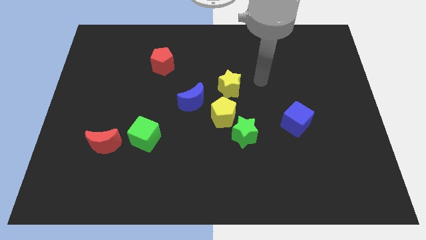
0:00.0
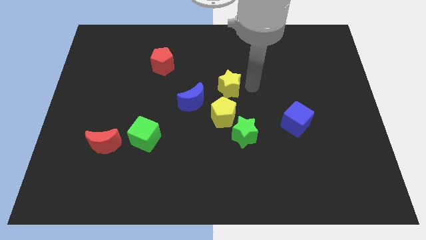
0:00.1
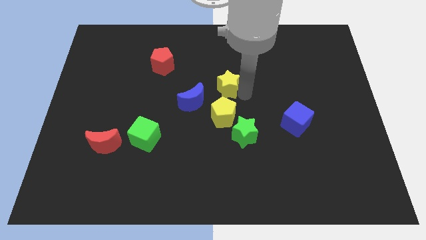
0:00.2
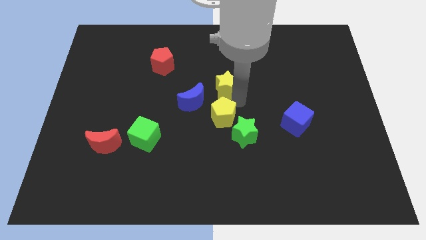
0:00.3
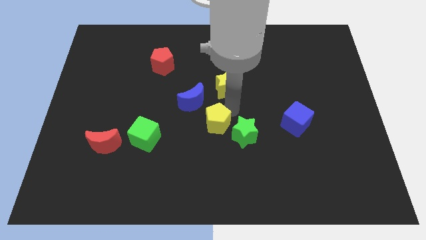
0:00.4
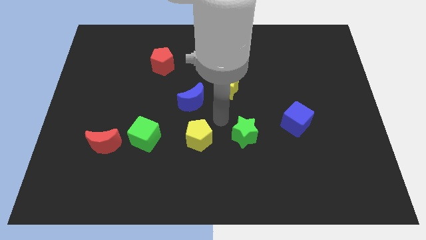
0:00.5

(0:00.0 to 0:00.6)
pull the green star apart from the yellow pentagon

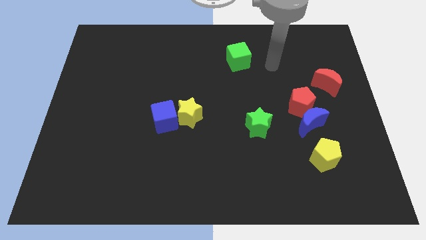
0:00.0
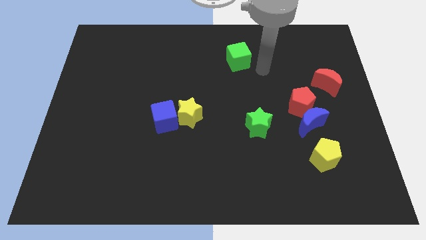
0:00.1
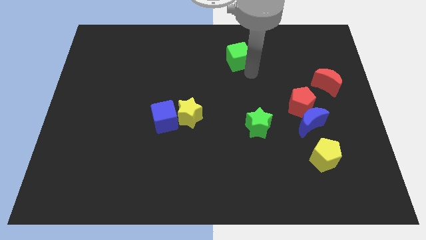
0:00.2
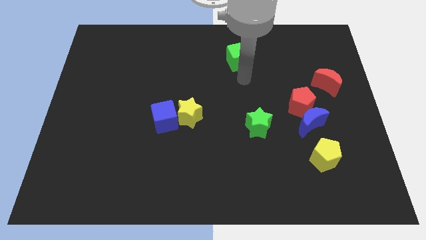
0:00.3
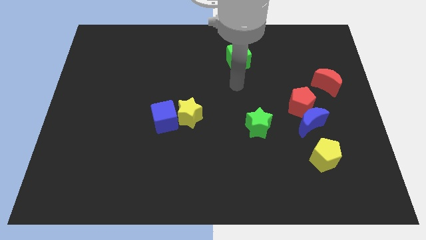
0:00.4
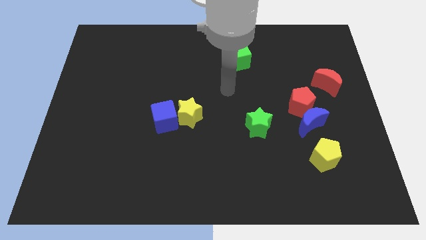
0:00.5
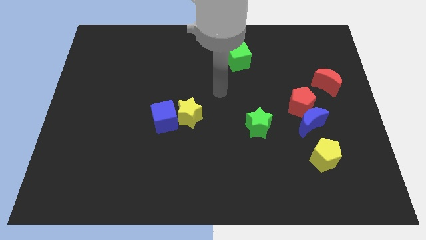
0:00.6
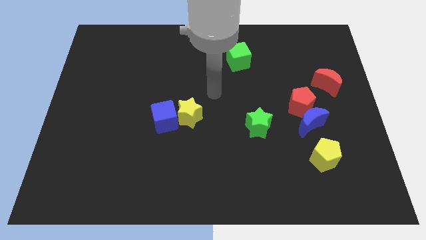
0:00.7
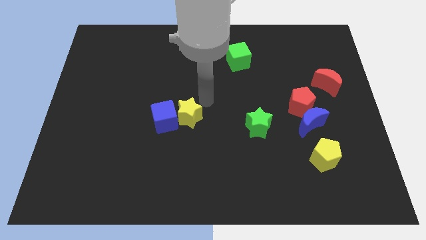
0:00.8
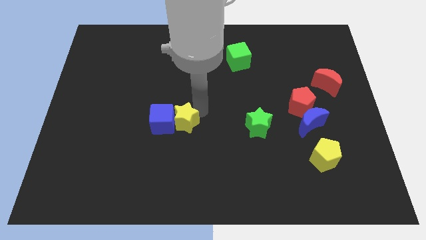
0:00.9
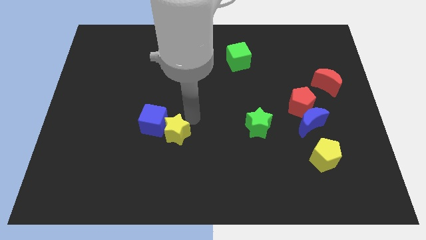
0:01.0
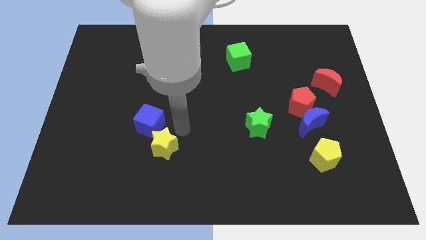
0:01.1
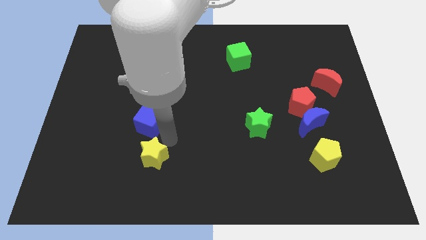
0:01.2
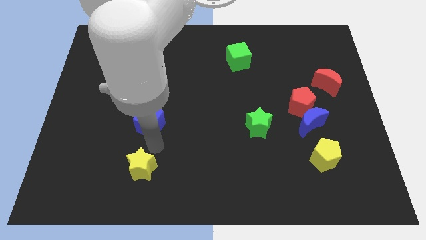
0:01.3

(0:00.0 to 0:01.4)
separate the blue cube from the yellow star

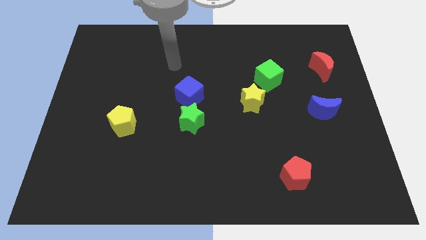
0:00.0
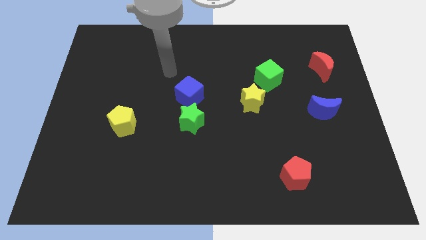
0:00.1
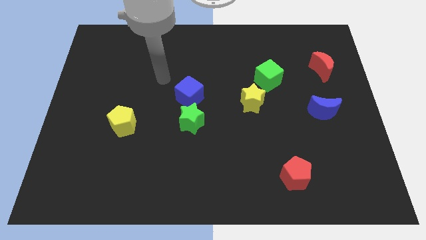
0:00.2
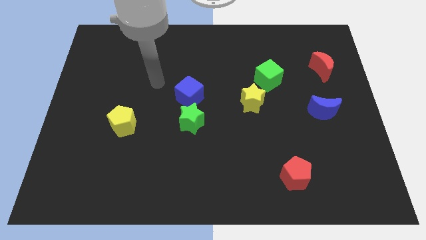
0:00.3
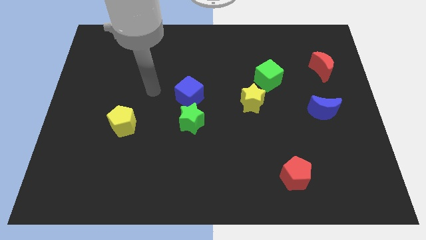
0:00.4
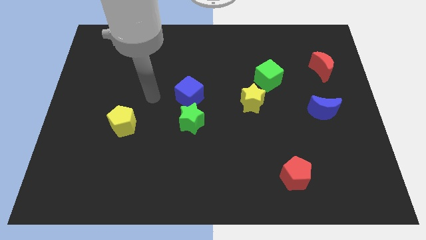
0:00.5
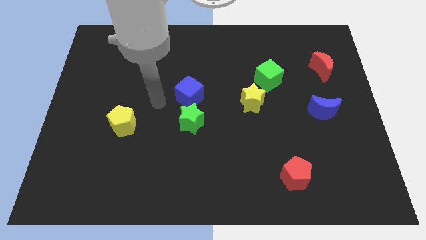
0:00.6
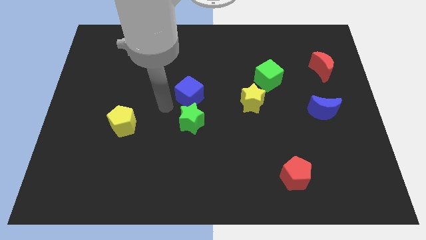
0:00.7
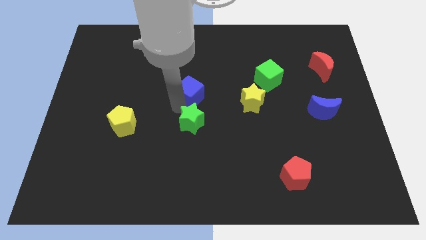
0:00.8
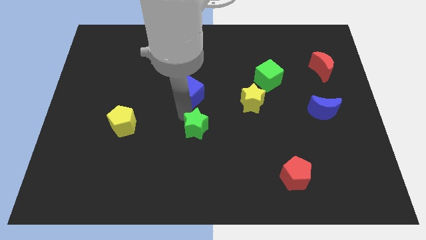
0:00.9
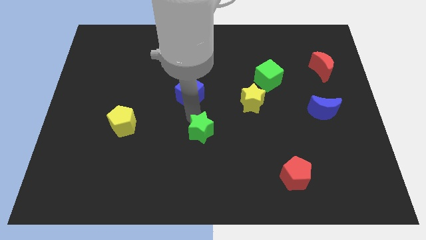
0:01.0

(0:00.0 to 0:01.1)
pull the blue cube apart from the green star

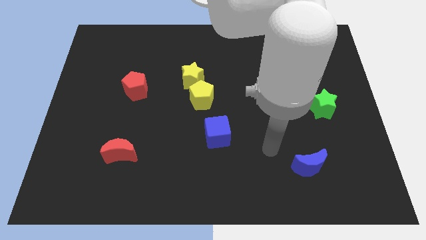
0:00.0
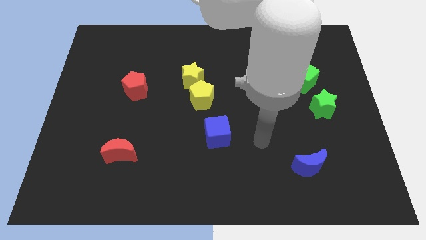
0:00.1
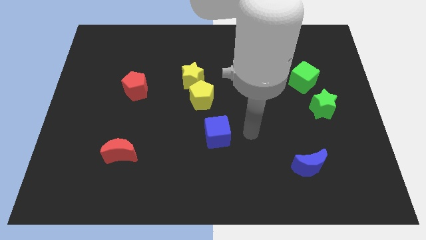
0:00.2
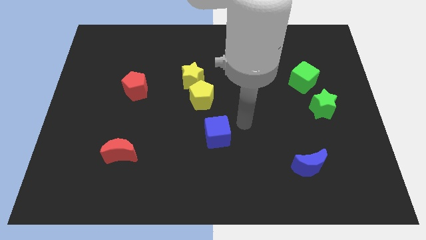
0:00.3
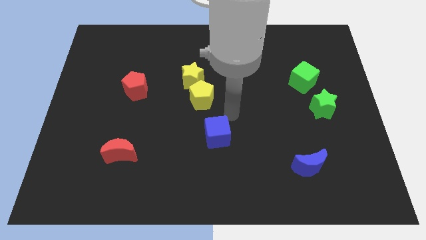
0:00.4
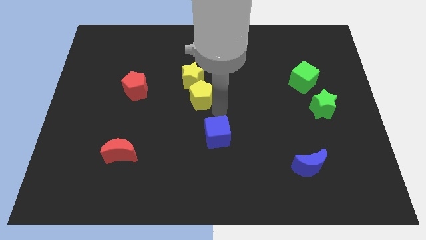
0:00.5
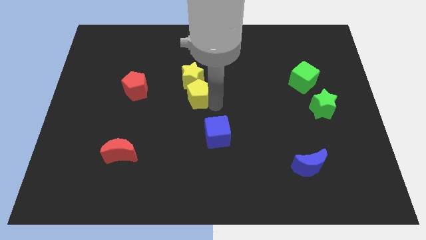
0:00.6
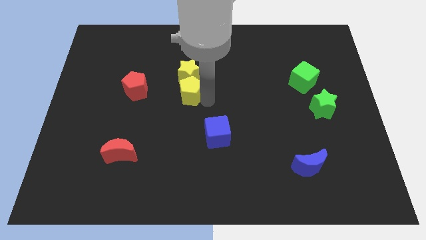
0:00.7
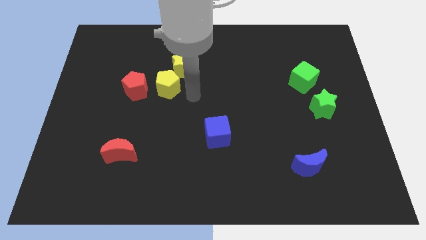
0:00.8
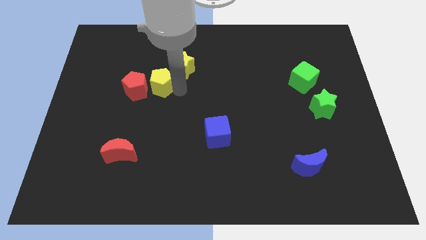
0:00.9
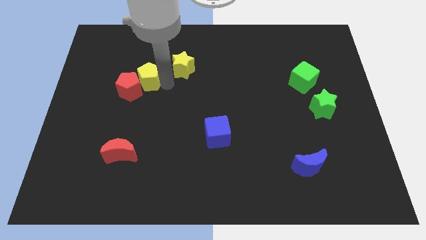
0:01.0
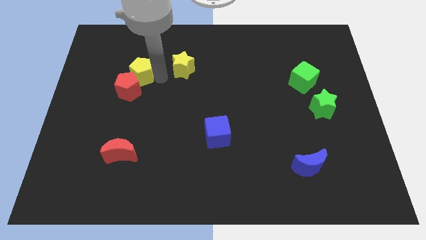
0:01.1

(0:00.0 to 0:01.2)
move the yellow star away from the yellow pentagon

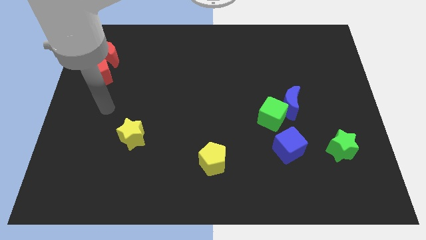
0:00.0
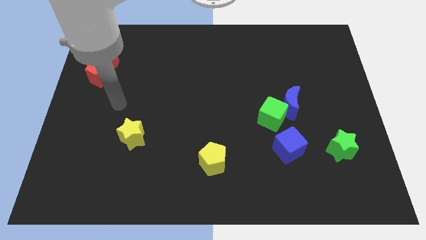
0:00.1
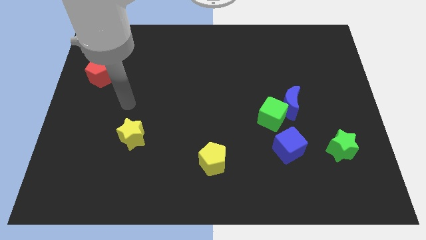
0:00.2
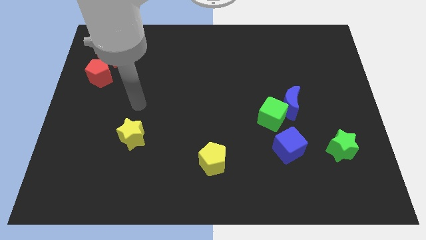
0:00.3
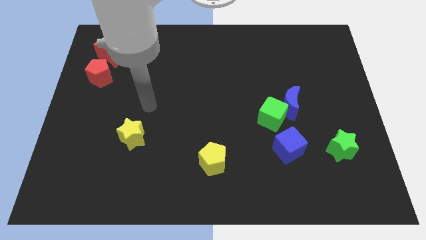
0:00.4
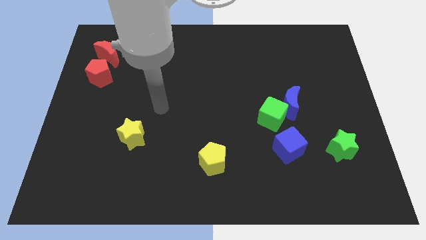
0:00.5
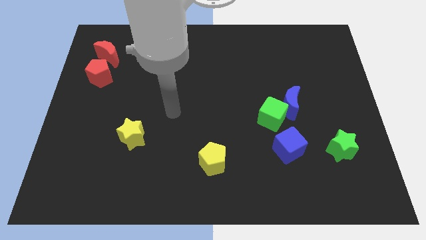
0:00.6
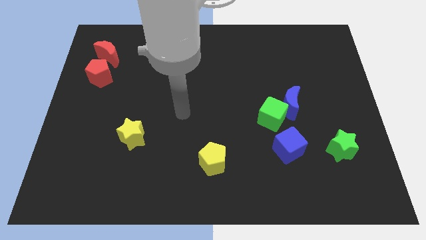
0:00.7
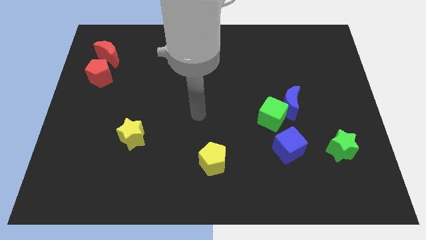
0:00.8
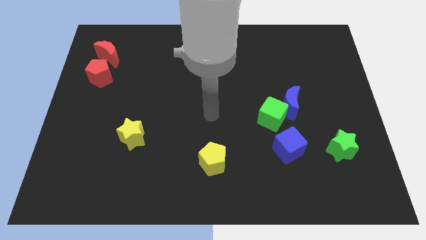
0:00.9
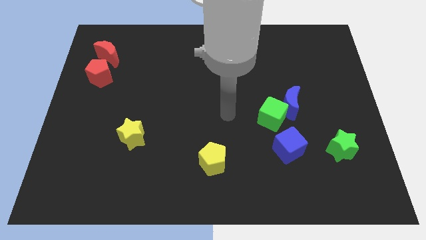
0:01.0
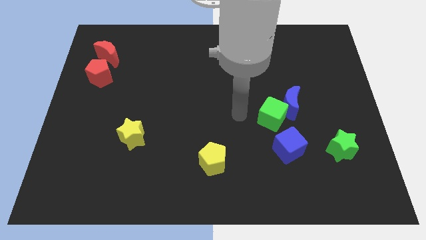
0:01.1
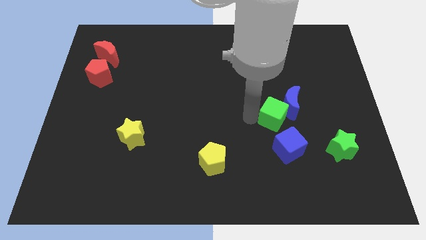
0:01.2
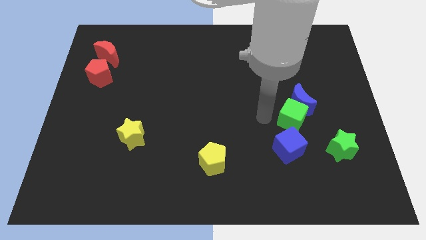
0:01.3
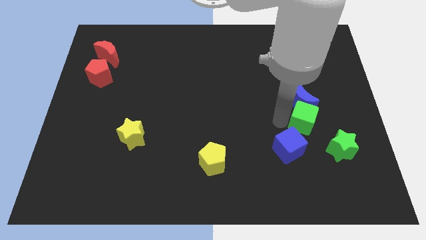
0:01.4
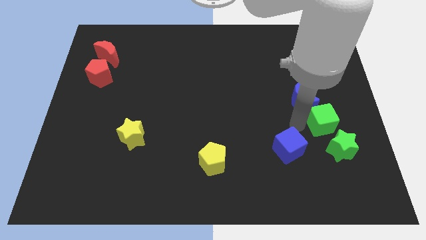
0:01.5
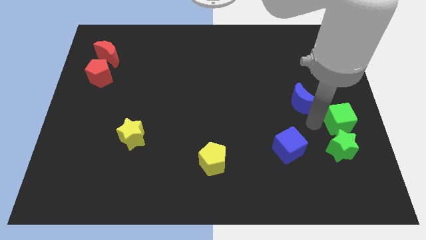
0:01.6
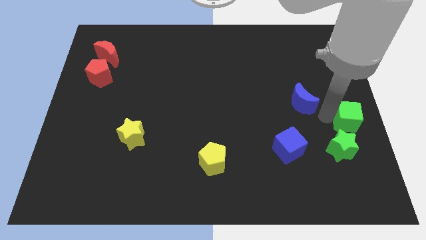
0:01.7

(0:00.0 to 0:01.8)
pull the blue moon apart from the green cube

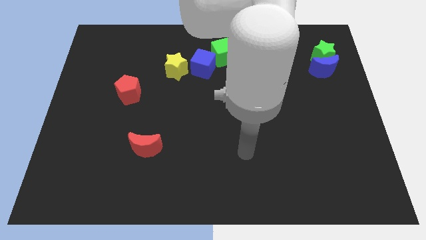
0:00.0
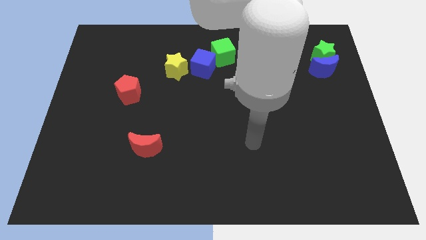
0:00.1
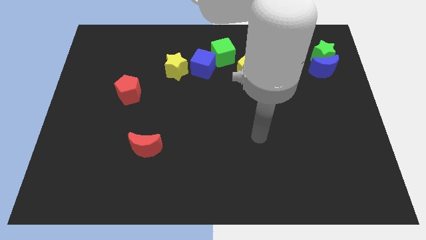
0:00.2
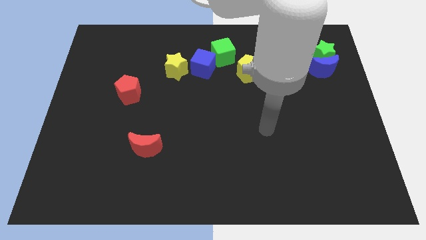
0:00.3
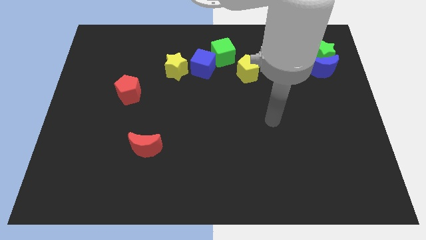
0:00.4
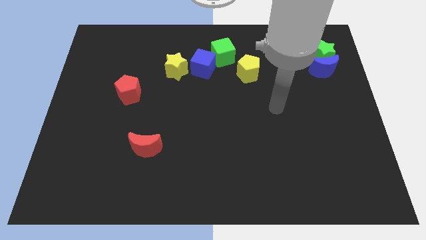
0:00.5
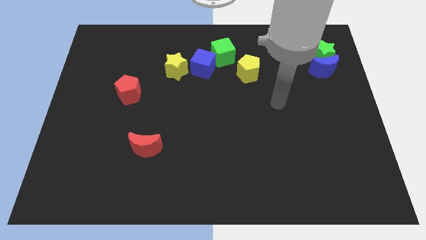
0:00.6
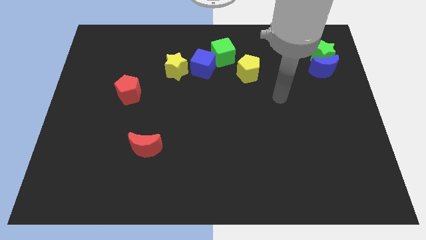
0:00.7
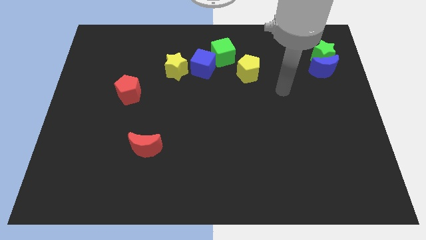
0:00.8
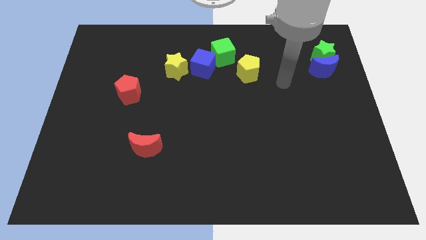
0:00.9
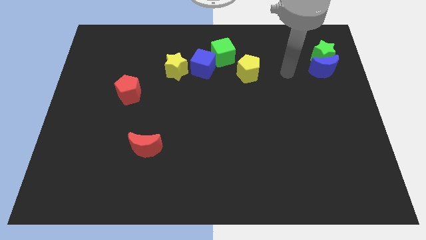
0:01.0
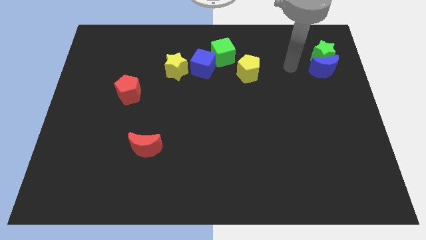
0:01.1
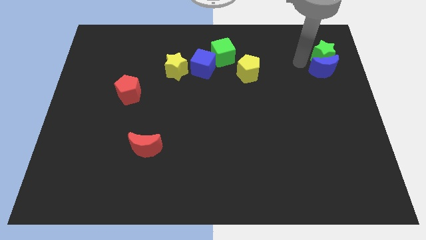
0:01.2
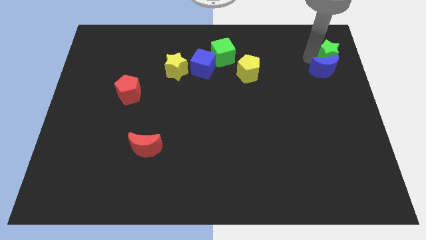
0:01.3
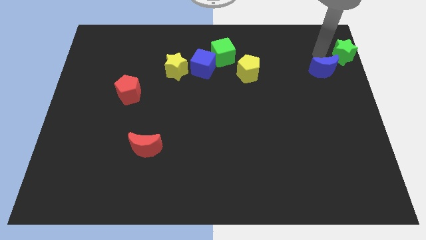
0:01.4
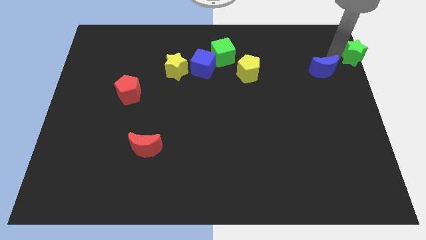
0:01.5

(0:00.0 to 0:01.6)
pull the blue moon apart from the green star

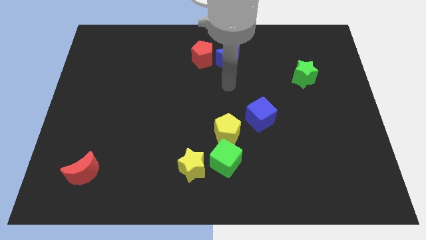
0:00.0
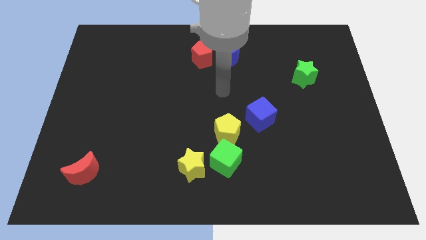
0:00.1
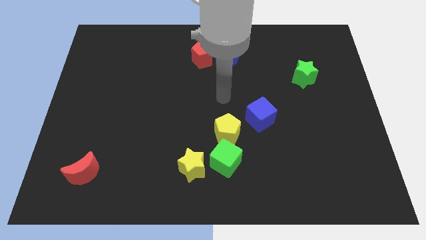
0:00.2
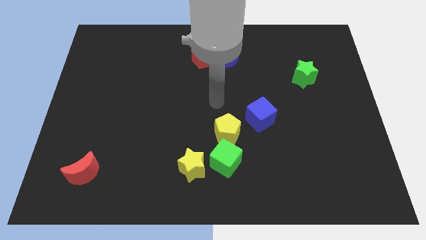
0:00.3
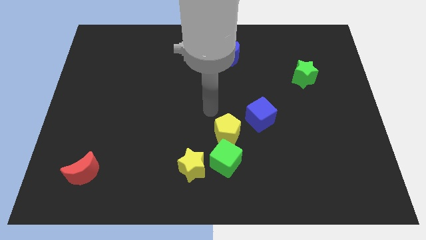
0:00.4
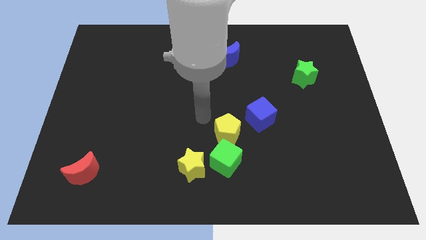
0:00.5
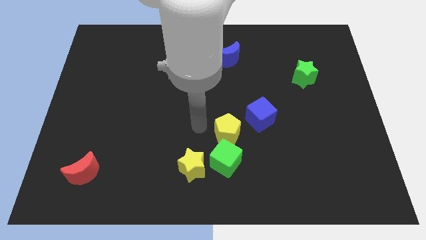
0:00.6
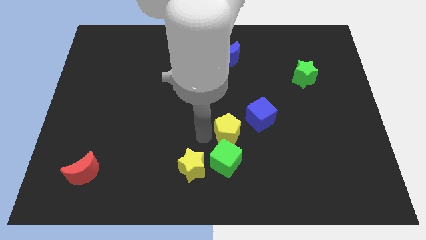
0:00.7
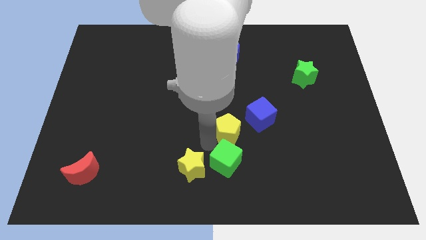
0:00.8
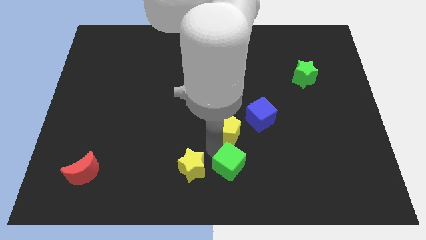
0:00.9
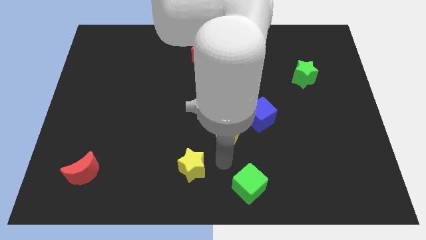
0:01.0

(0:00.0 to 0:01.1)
move the yellow star away from the green cube

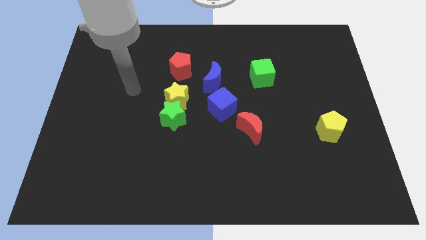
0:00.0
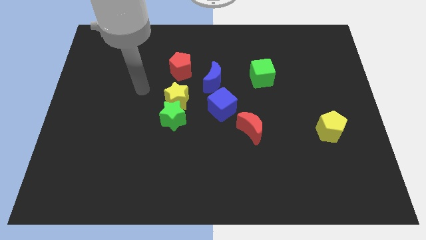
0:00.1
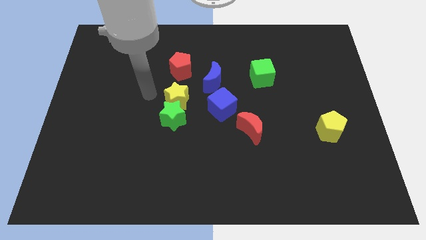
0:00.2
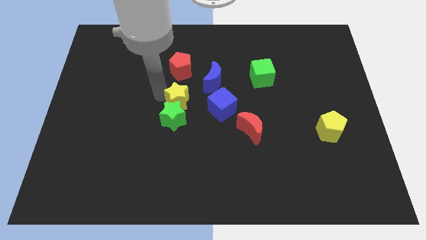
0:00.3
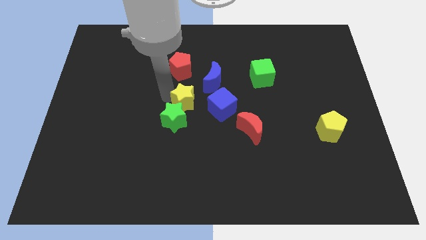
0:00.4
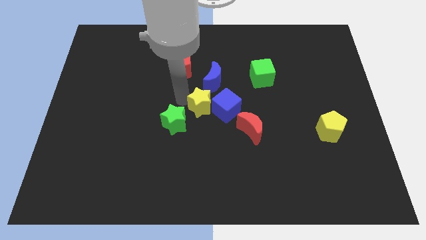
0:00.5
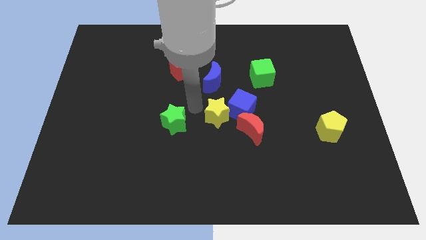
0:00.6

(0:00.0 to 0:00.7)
pull the green star apart from the yellow star

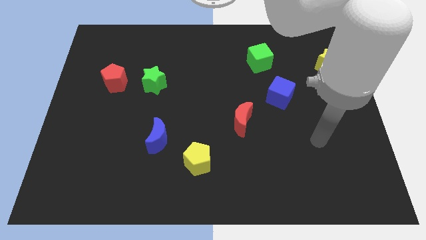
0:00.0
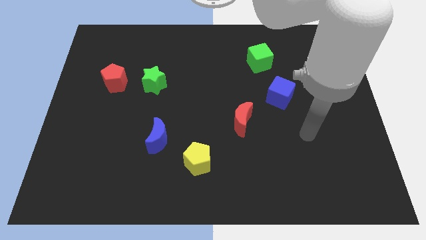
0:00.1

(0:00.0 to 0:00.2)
separate the red pentagon from the green star
